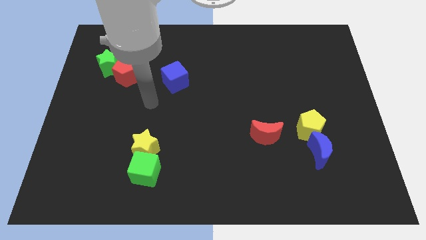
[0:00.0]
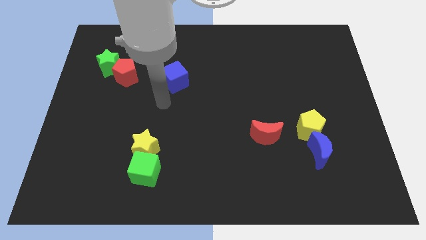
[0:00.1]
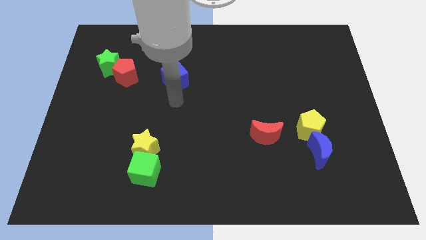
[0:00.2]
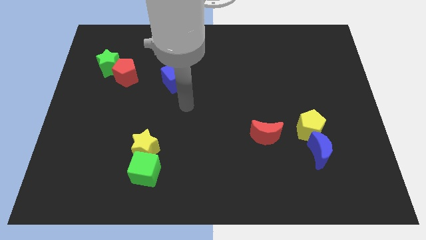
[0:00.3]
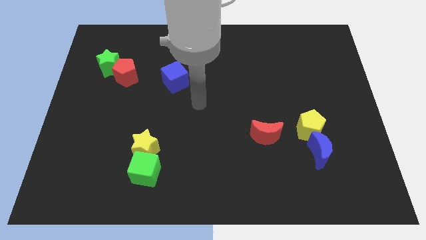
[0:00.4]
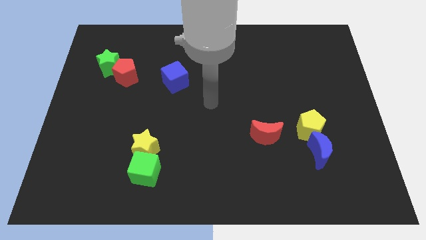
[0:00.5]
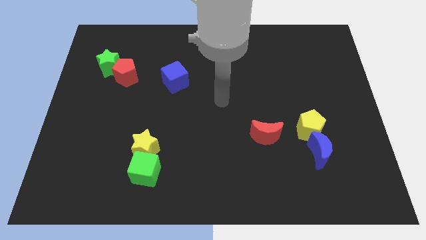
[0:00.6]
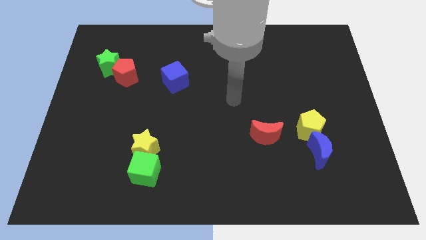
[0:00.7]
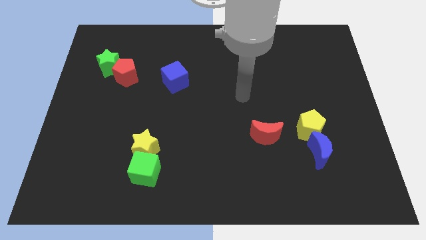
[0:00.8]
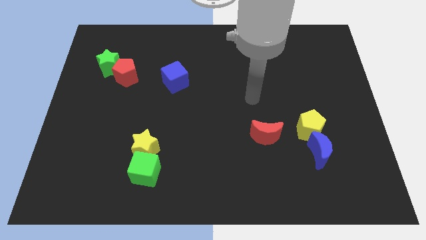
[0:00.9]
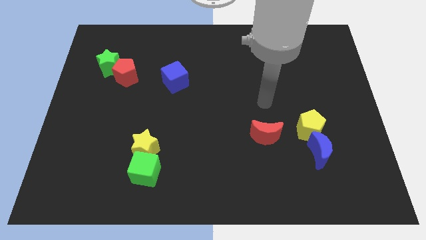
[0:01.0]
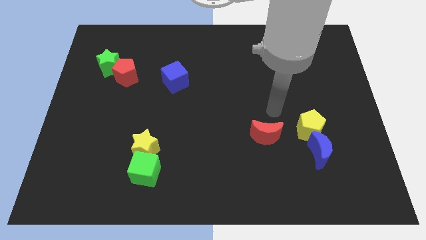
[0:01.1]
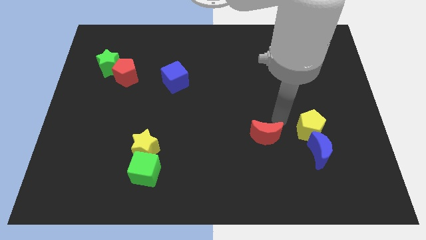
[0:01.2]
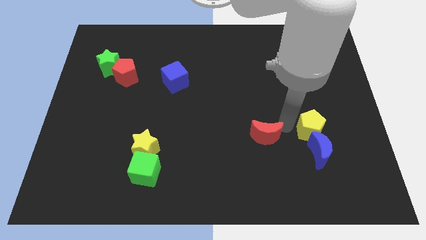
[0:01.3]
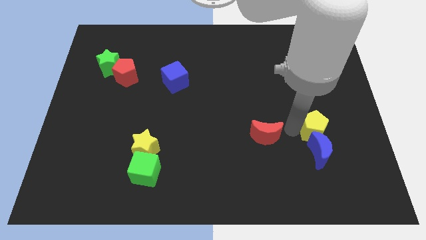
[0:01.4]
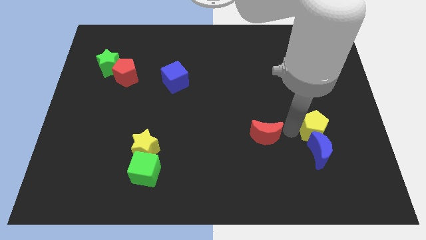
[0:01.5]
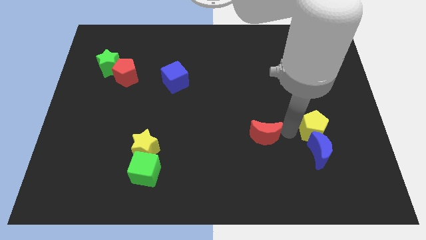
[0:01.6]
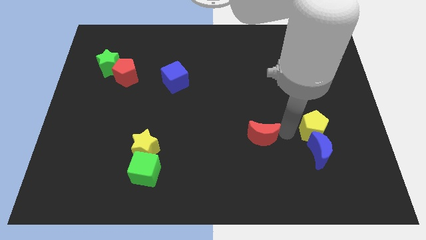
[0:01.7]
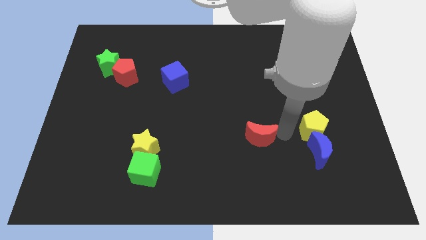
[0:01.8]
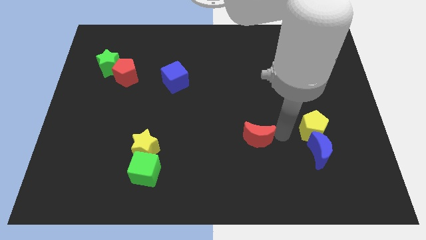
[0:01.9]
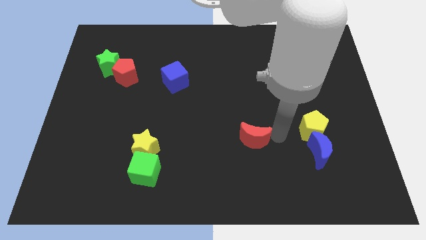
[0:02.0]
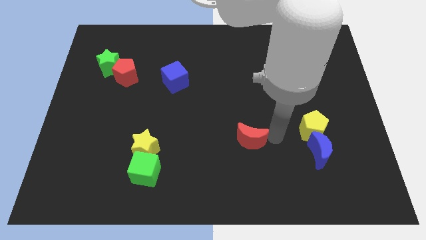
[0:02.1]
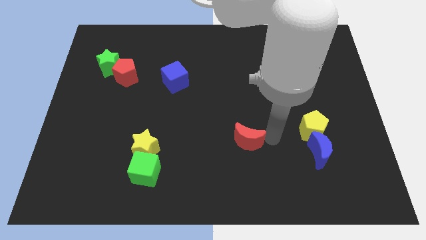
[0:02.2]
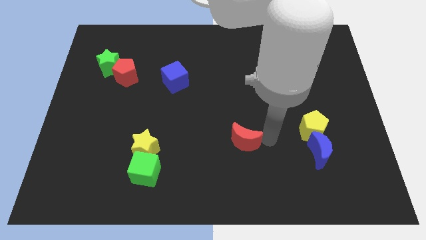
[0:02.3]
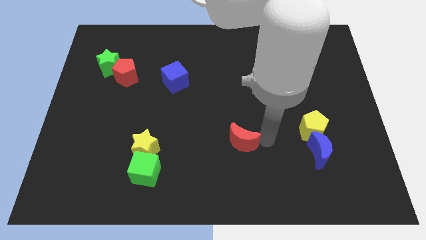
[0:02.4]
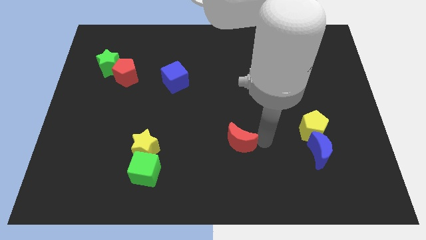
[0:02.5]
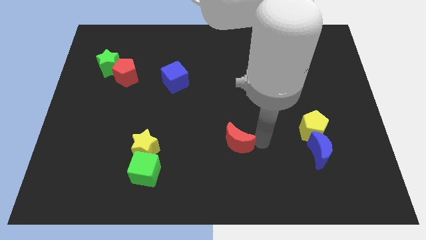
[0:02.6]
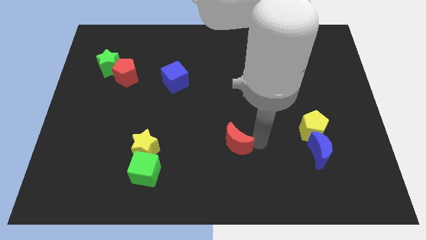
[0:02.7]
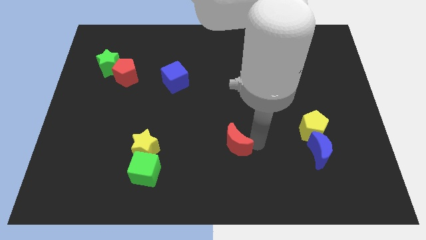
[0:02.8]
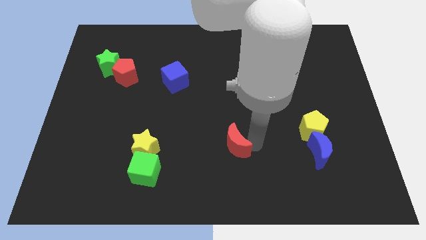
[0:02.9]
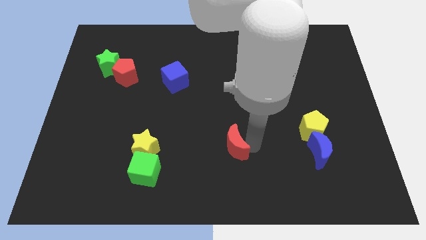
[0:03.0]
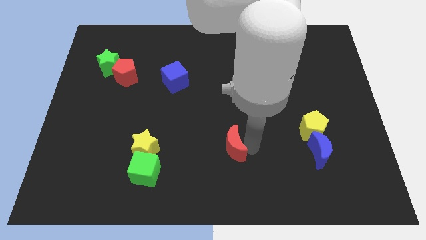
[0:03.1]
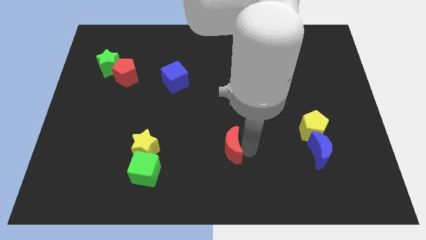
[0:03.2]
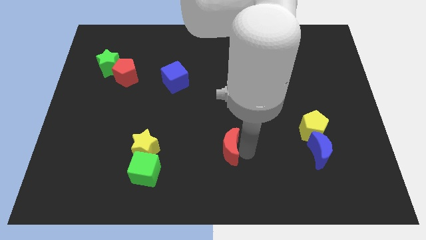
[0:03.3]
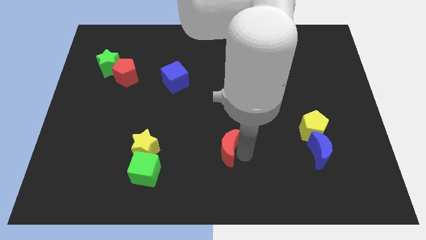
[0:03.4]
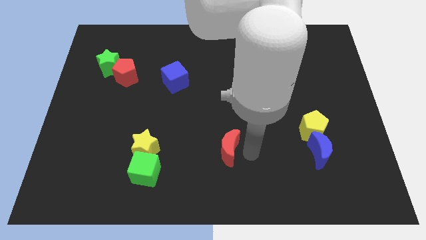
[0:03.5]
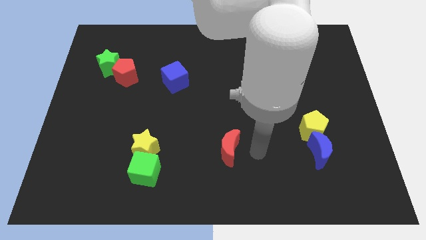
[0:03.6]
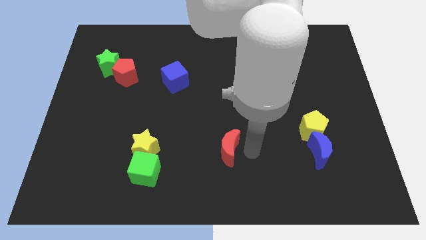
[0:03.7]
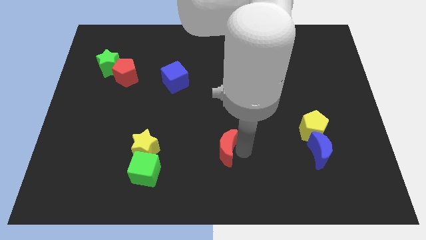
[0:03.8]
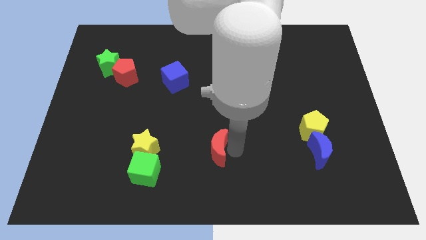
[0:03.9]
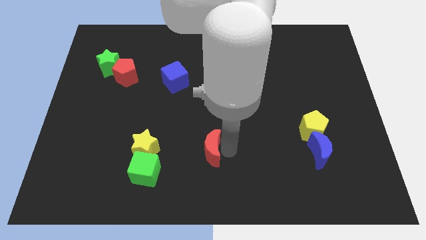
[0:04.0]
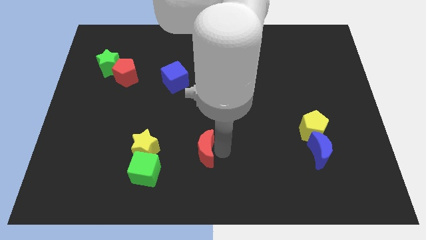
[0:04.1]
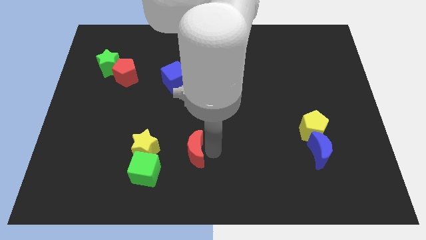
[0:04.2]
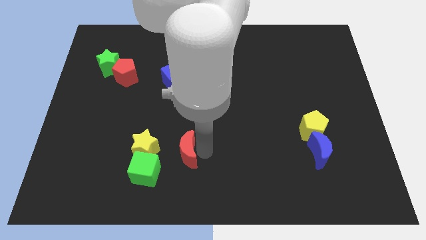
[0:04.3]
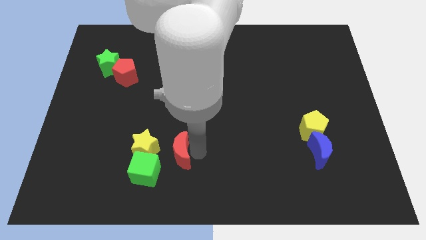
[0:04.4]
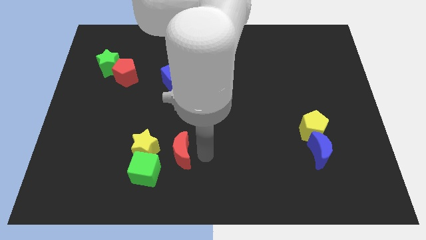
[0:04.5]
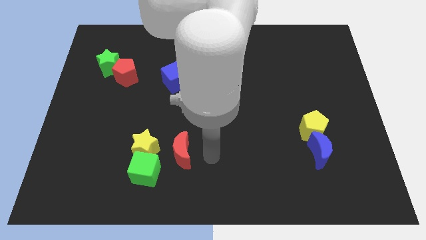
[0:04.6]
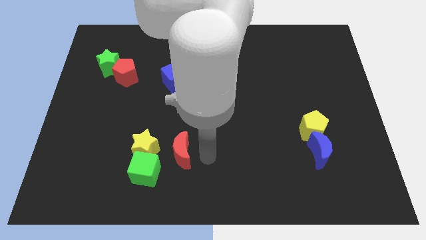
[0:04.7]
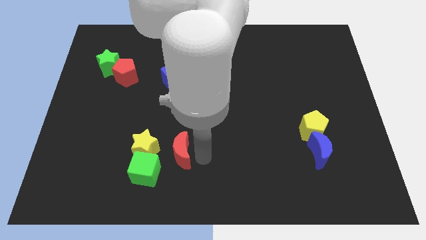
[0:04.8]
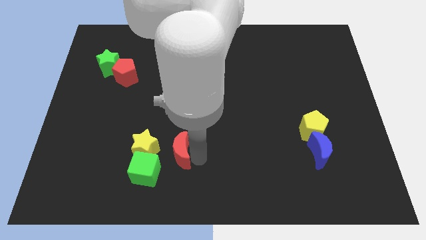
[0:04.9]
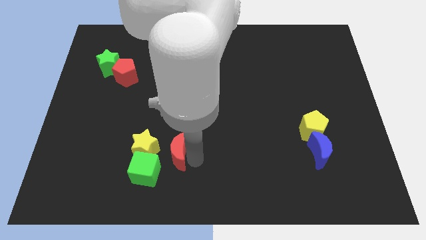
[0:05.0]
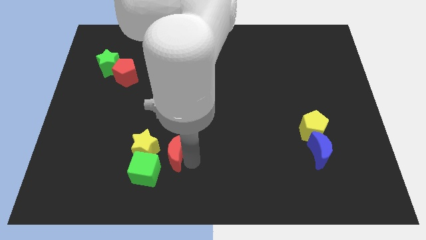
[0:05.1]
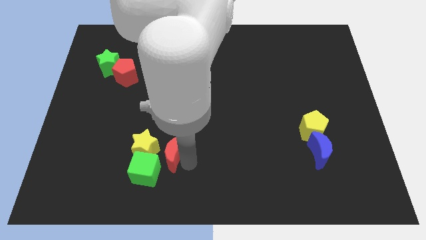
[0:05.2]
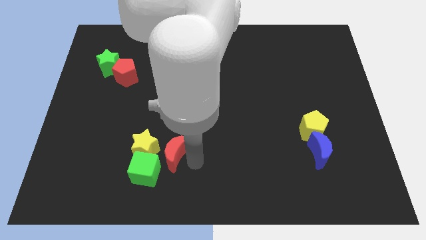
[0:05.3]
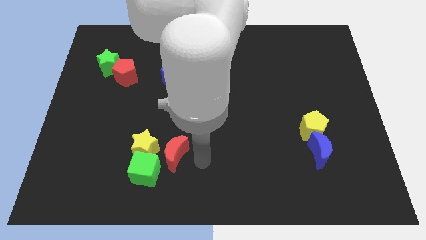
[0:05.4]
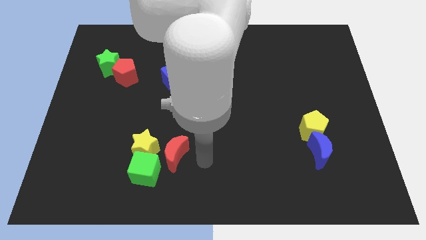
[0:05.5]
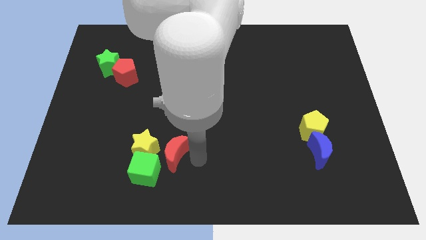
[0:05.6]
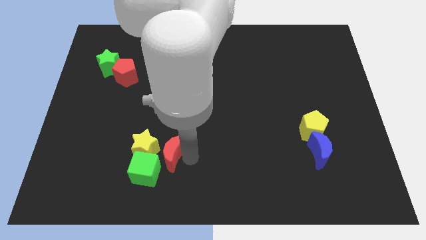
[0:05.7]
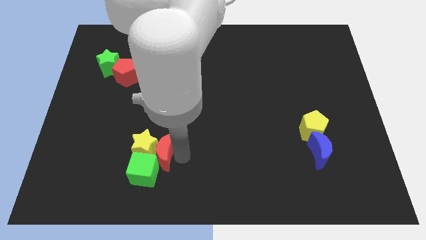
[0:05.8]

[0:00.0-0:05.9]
slide the red moon close to the yellow star

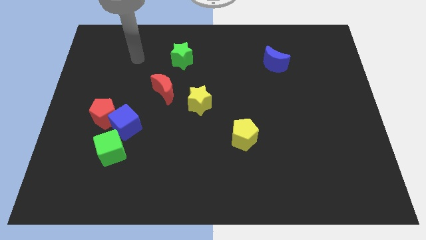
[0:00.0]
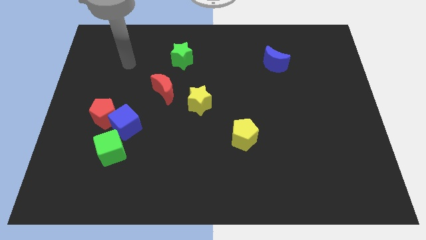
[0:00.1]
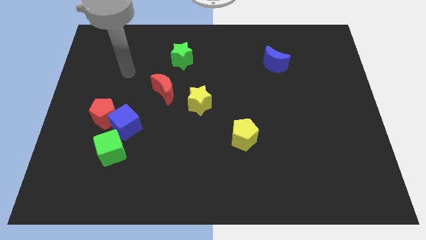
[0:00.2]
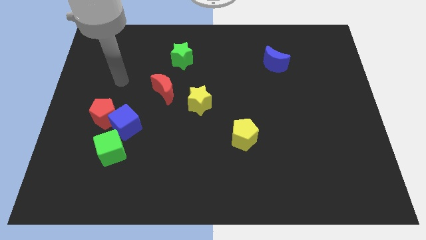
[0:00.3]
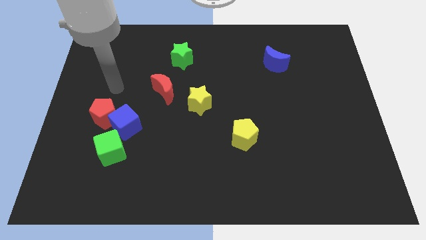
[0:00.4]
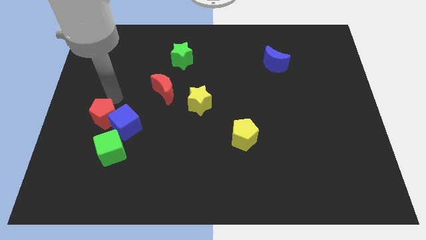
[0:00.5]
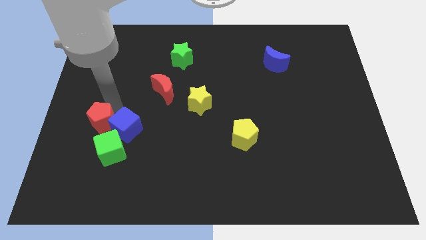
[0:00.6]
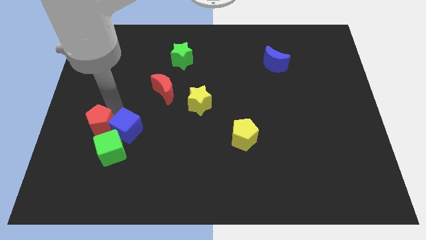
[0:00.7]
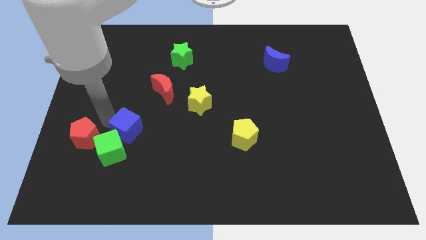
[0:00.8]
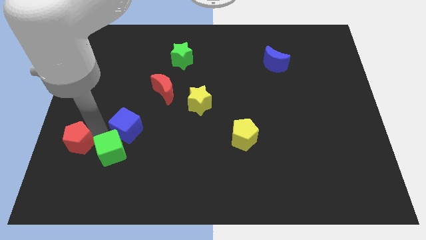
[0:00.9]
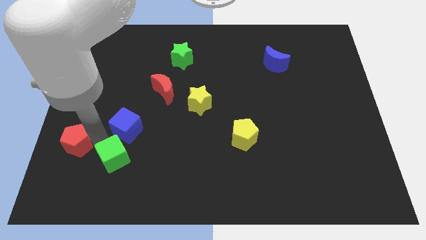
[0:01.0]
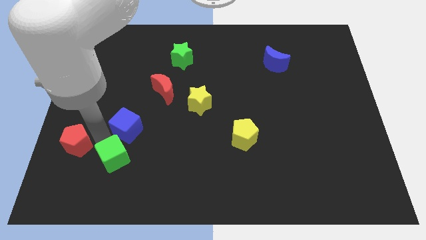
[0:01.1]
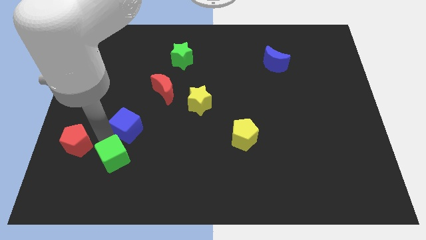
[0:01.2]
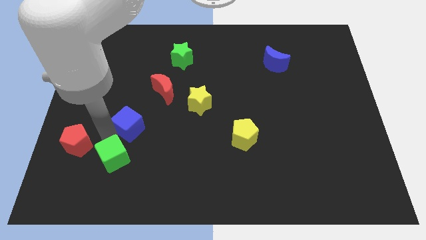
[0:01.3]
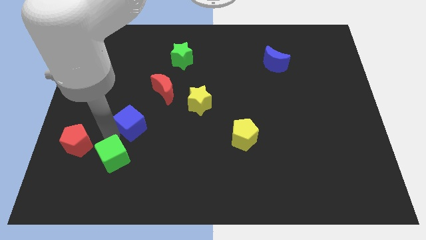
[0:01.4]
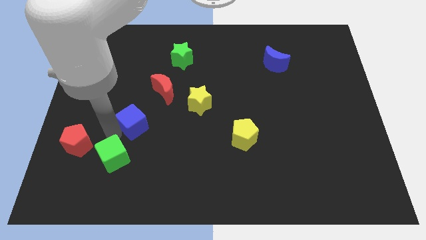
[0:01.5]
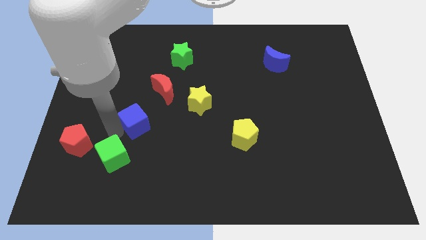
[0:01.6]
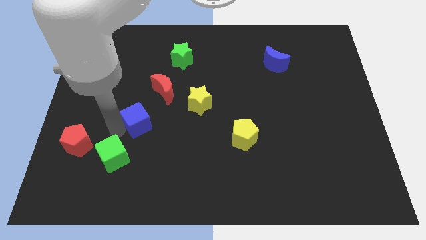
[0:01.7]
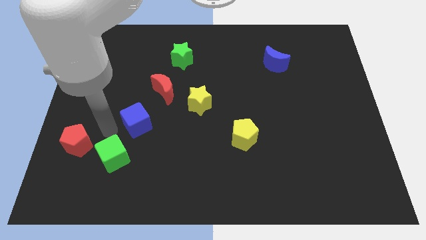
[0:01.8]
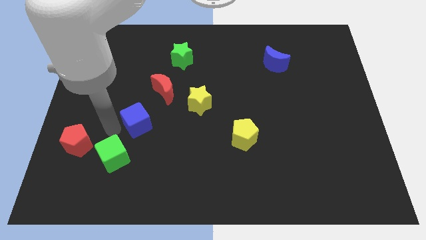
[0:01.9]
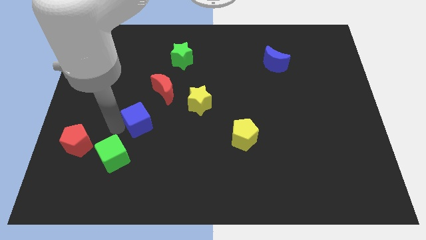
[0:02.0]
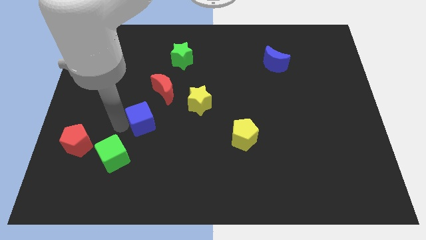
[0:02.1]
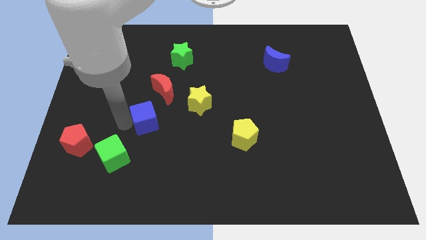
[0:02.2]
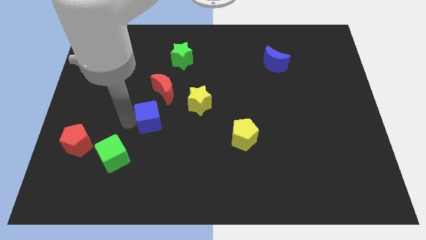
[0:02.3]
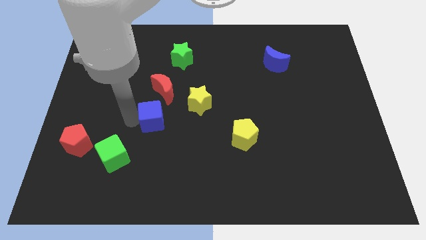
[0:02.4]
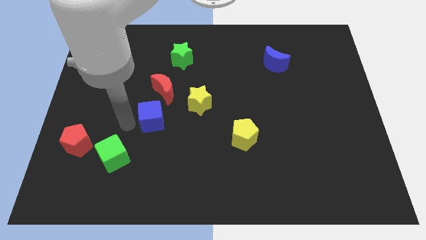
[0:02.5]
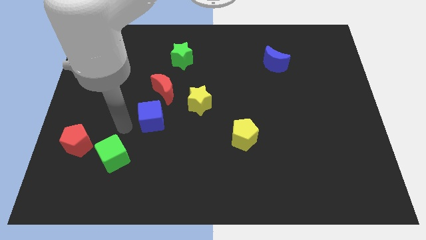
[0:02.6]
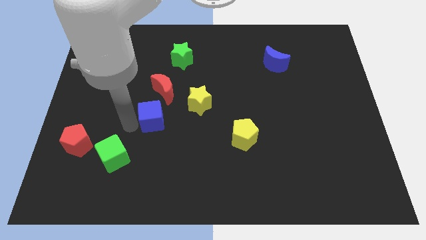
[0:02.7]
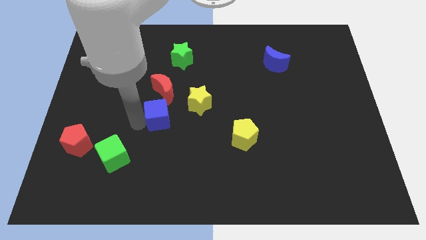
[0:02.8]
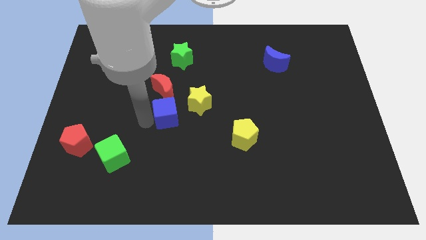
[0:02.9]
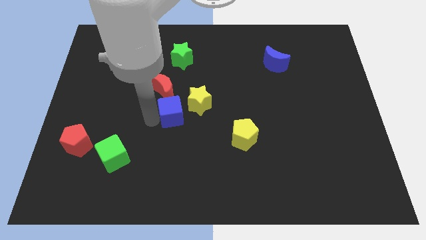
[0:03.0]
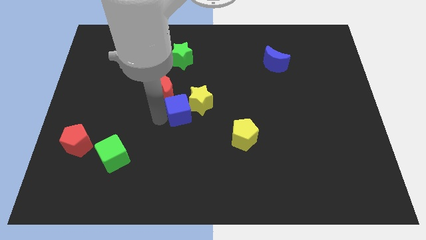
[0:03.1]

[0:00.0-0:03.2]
move the blue cube towards the yellow star
